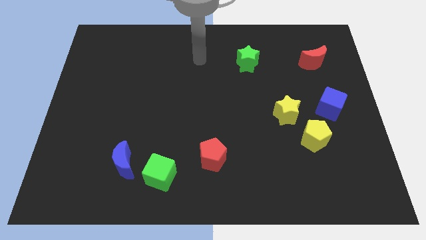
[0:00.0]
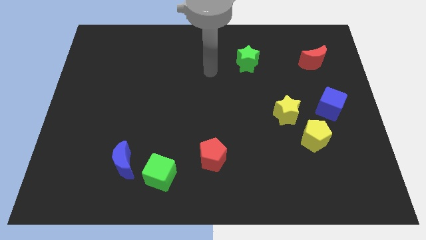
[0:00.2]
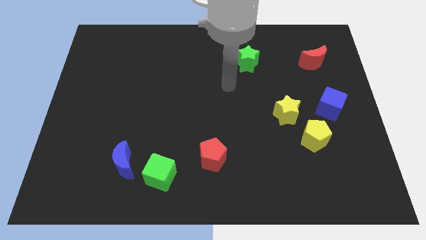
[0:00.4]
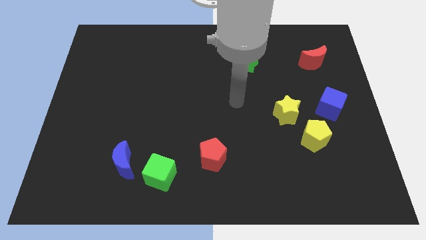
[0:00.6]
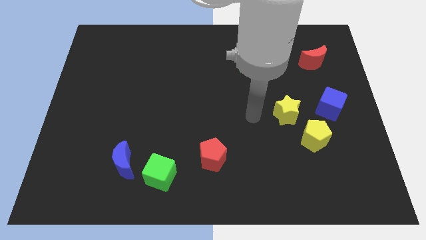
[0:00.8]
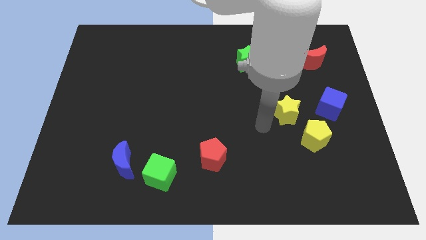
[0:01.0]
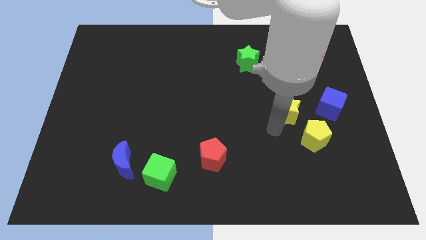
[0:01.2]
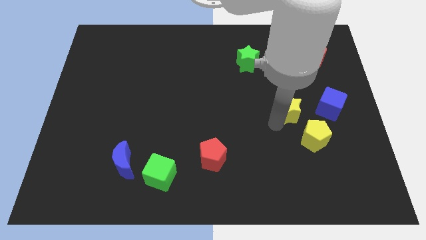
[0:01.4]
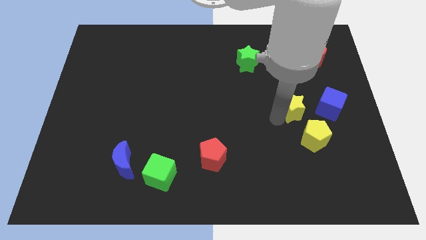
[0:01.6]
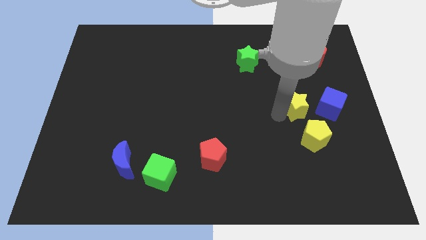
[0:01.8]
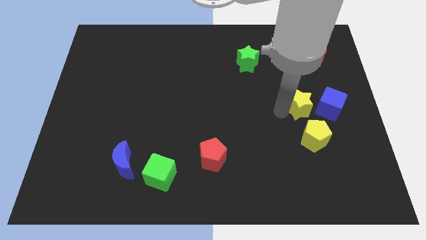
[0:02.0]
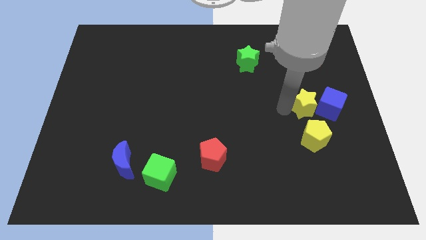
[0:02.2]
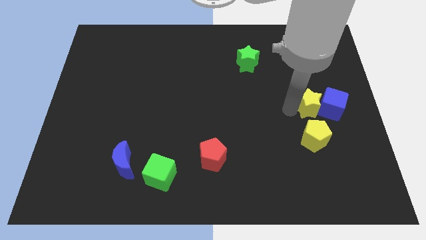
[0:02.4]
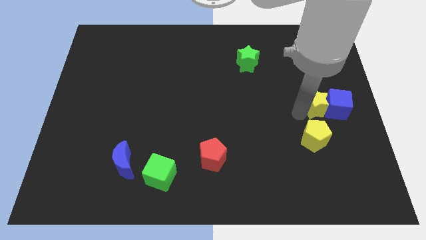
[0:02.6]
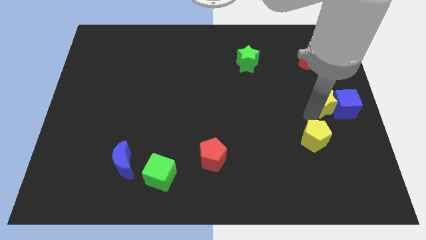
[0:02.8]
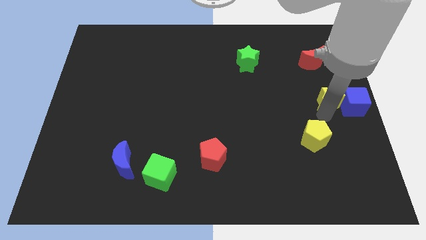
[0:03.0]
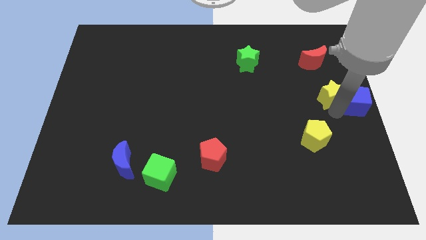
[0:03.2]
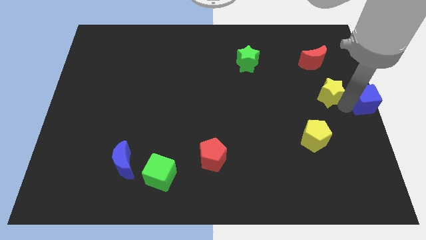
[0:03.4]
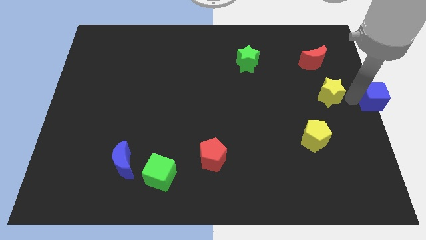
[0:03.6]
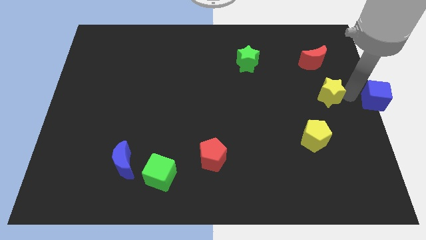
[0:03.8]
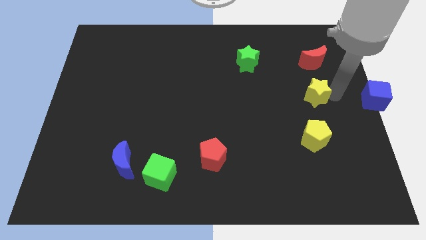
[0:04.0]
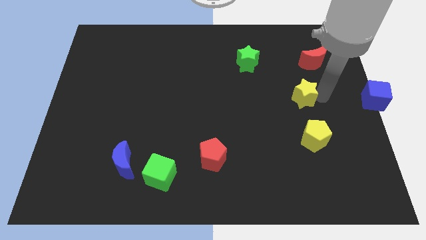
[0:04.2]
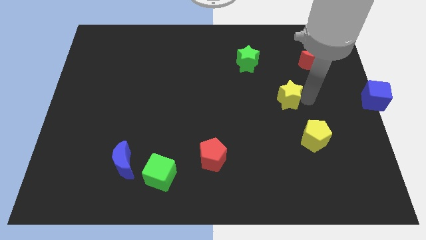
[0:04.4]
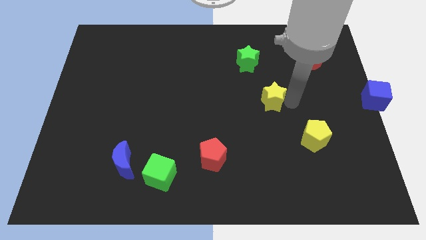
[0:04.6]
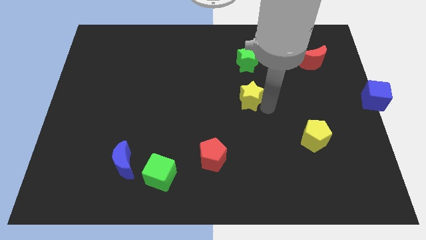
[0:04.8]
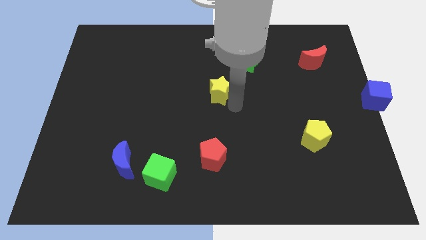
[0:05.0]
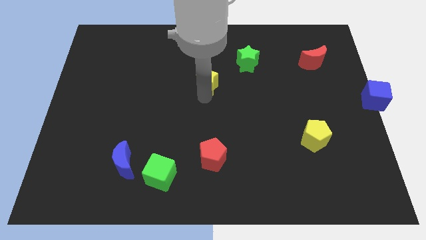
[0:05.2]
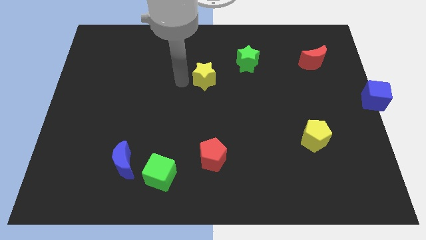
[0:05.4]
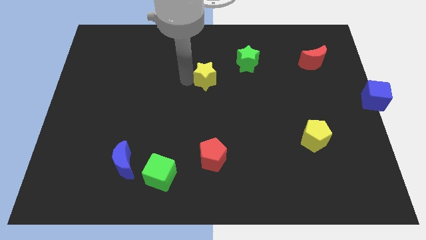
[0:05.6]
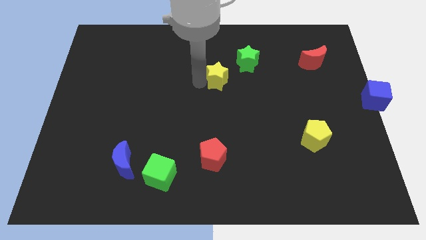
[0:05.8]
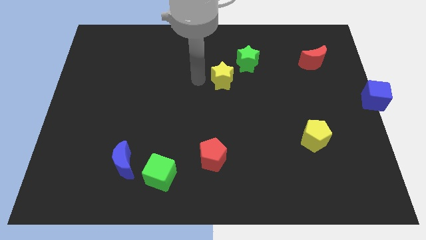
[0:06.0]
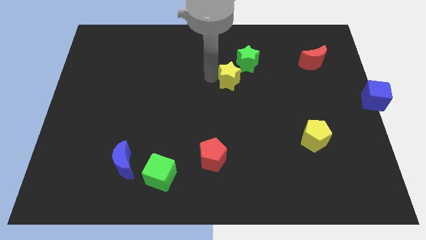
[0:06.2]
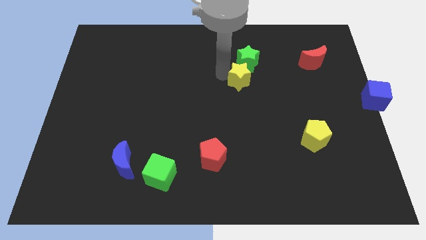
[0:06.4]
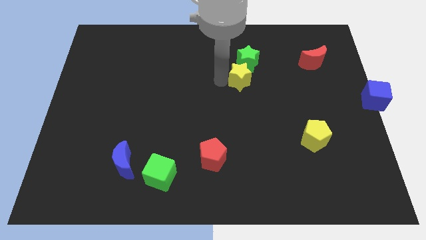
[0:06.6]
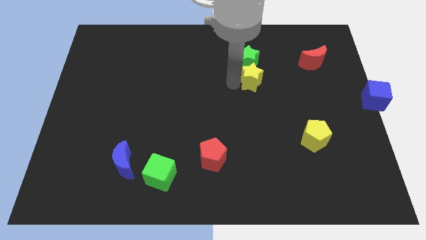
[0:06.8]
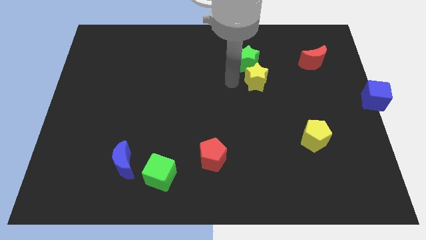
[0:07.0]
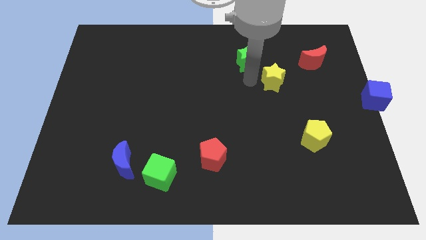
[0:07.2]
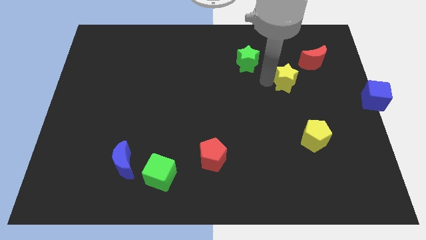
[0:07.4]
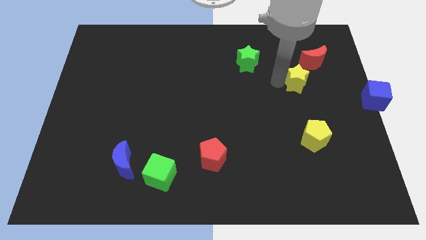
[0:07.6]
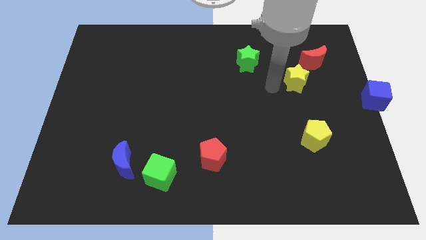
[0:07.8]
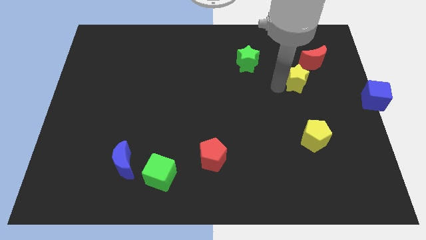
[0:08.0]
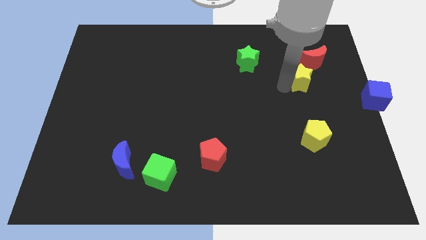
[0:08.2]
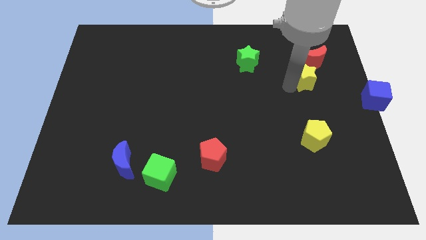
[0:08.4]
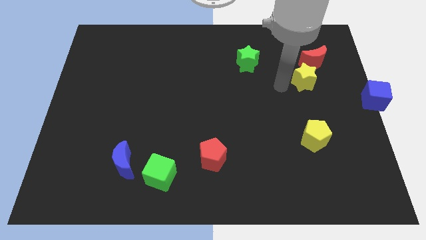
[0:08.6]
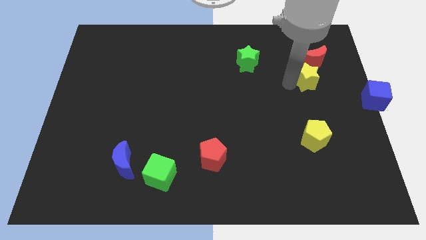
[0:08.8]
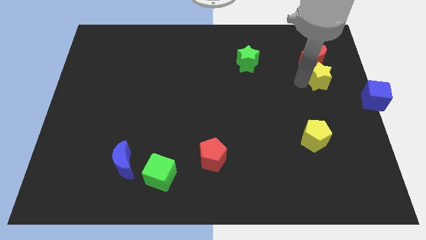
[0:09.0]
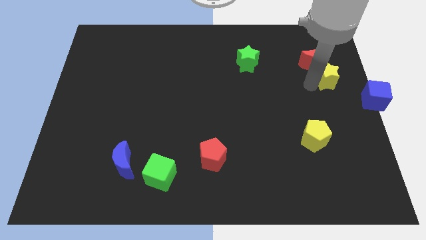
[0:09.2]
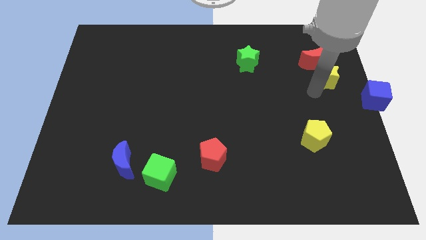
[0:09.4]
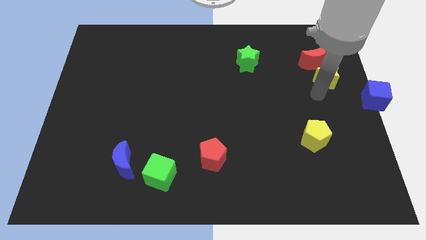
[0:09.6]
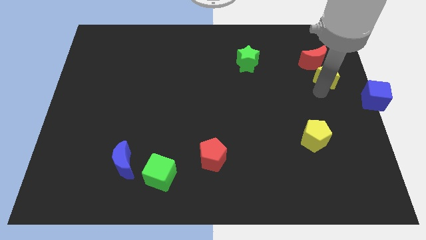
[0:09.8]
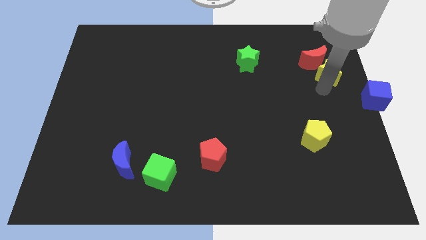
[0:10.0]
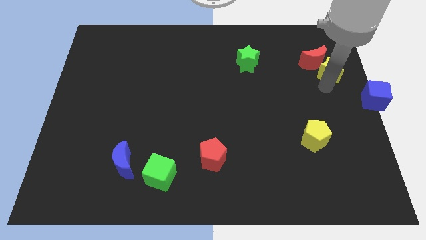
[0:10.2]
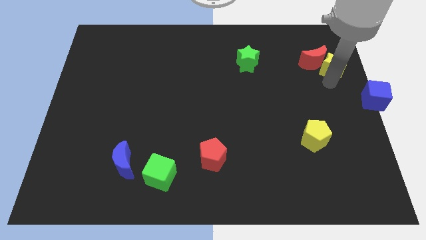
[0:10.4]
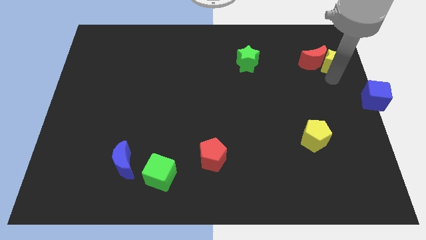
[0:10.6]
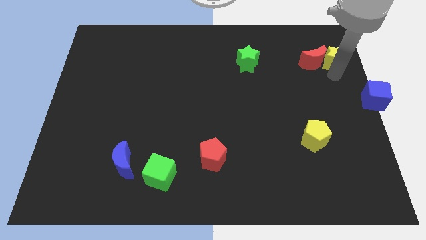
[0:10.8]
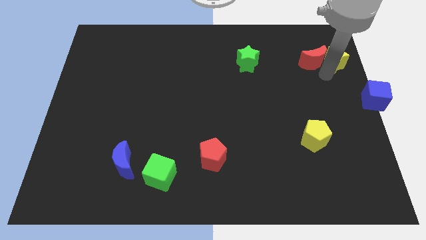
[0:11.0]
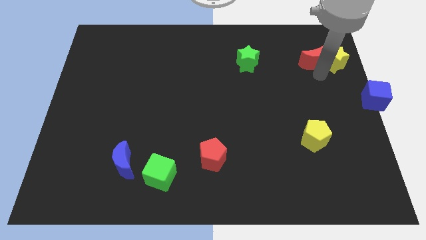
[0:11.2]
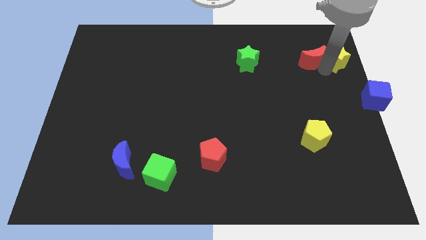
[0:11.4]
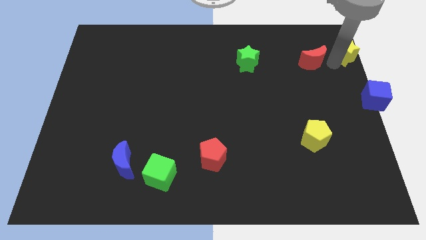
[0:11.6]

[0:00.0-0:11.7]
put the yellow star to the top right of the board

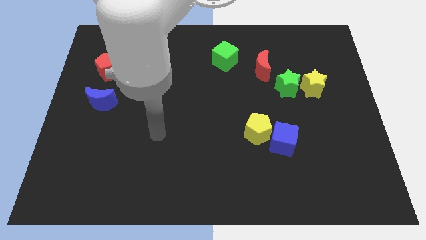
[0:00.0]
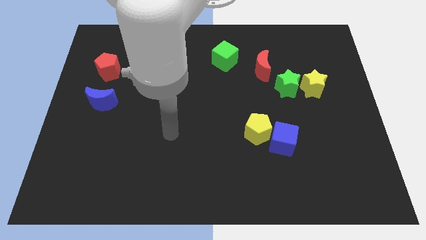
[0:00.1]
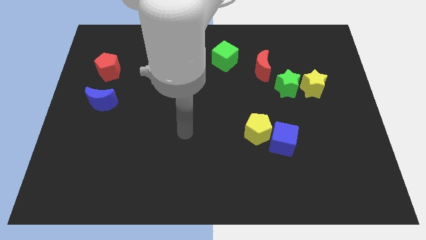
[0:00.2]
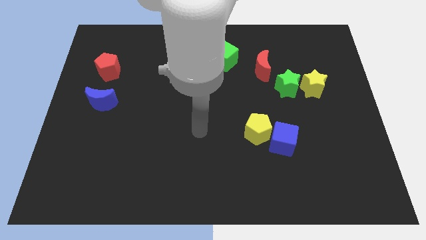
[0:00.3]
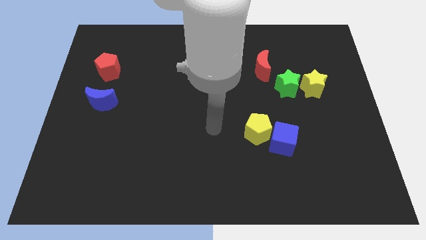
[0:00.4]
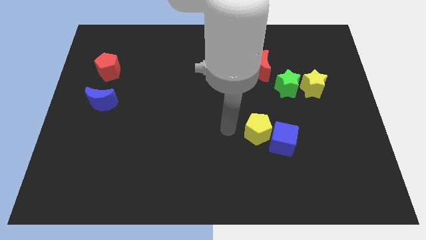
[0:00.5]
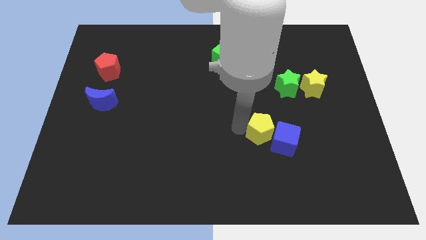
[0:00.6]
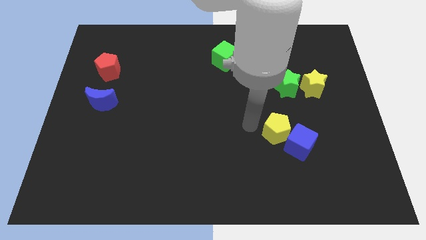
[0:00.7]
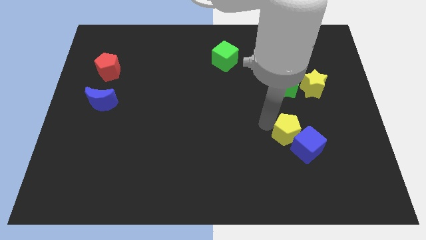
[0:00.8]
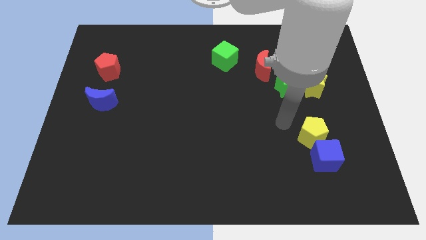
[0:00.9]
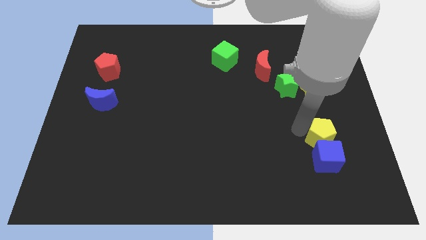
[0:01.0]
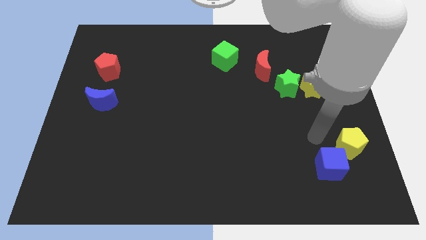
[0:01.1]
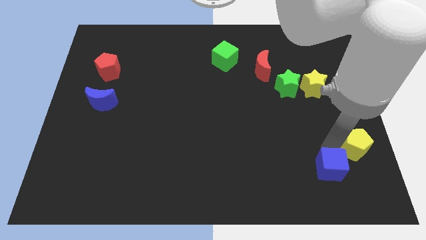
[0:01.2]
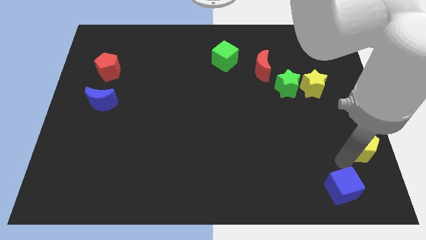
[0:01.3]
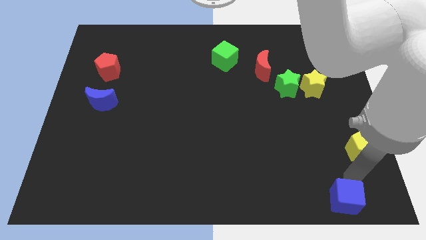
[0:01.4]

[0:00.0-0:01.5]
put the blue cube to the lower right corner
